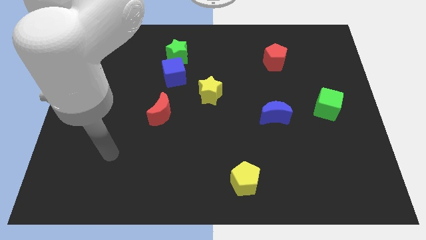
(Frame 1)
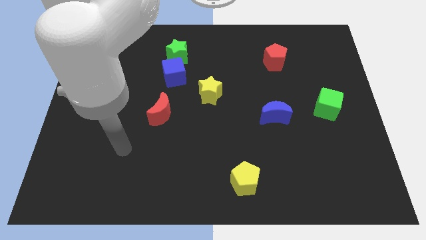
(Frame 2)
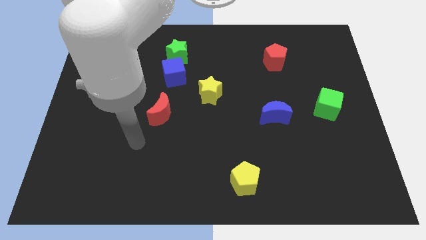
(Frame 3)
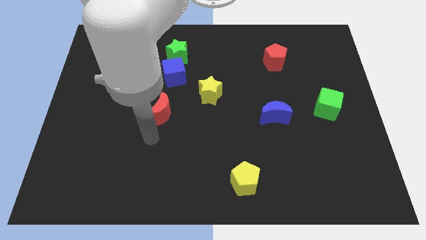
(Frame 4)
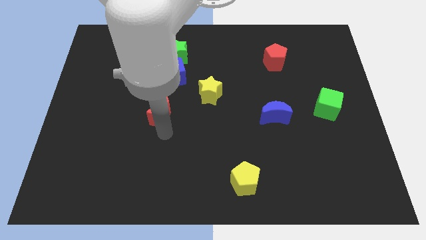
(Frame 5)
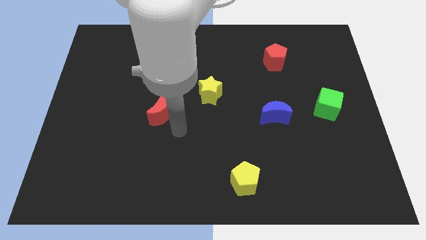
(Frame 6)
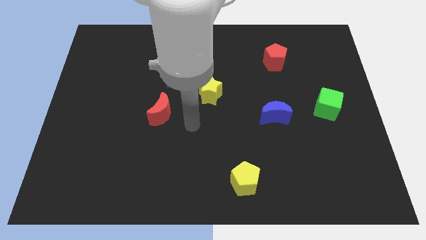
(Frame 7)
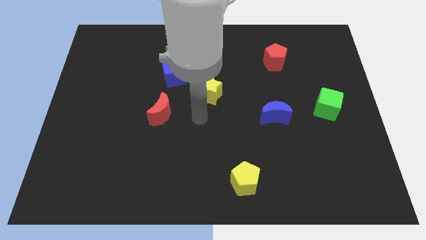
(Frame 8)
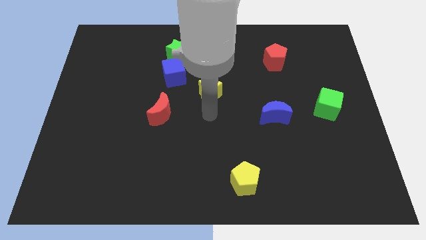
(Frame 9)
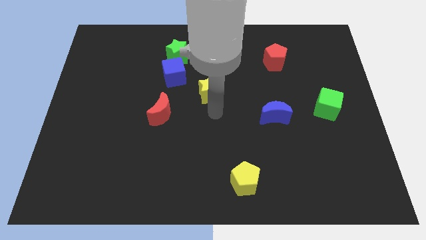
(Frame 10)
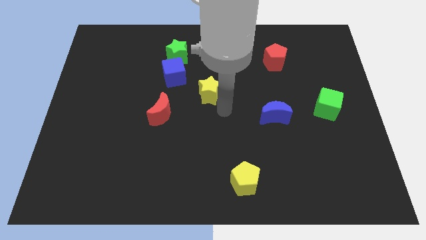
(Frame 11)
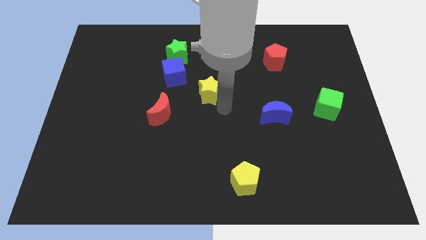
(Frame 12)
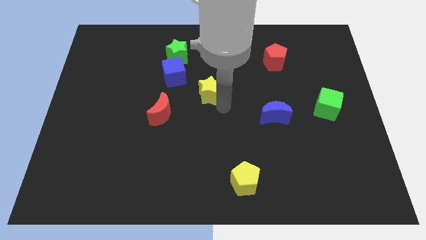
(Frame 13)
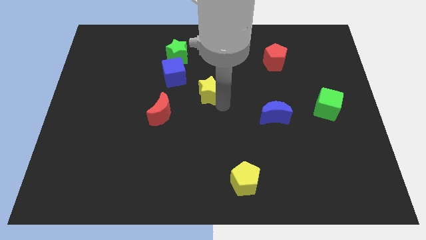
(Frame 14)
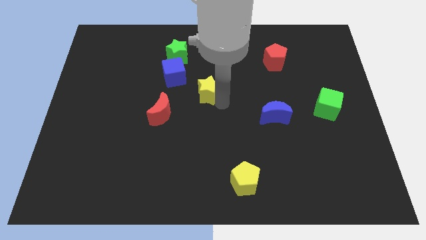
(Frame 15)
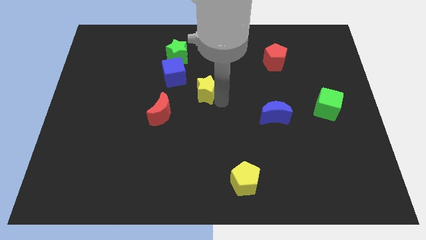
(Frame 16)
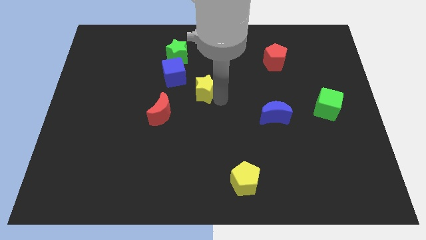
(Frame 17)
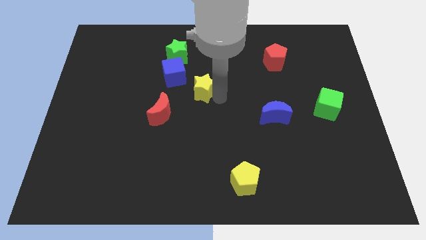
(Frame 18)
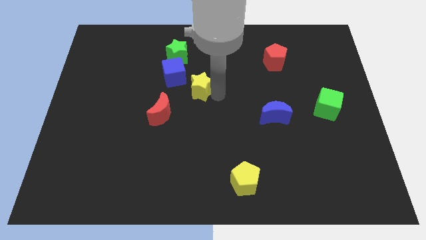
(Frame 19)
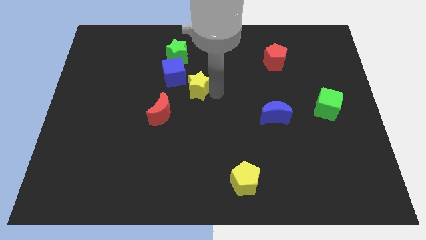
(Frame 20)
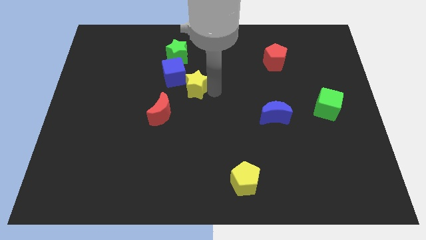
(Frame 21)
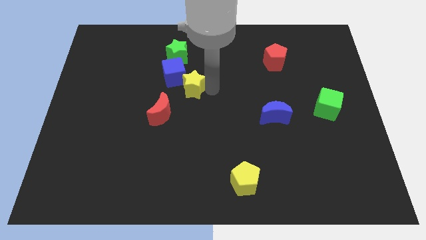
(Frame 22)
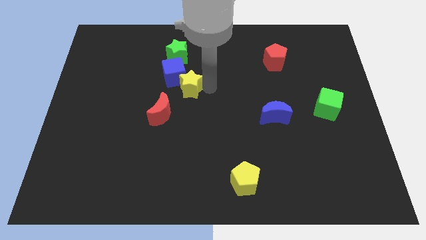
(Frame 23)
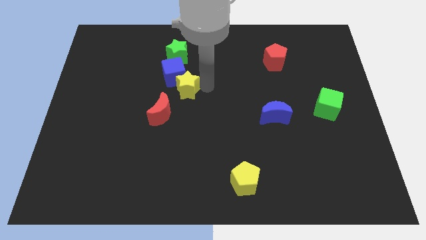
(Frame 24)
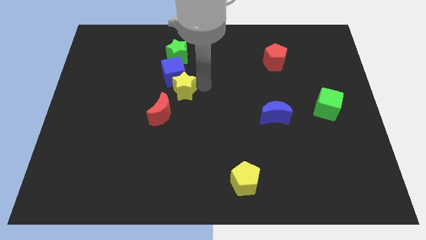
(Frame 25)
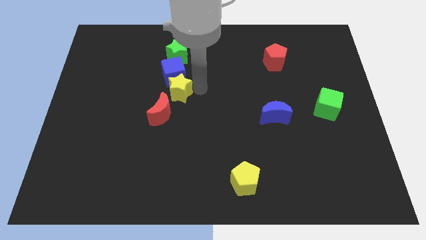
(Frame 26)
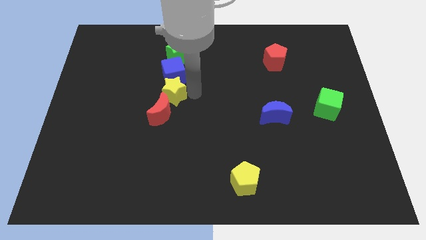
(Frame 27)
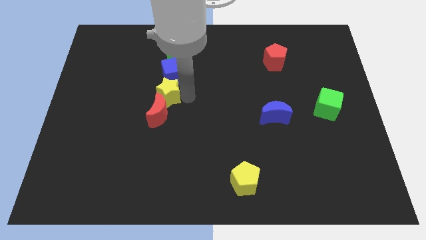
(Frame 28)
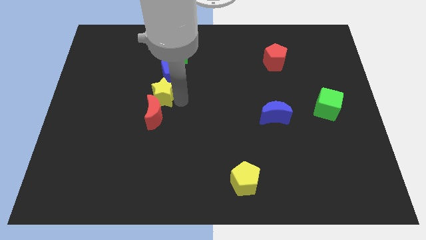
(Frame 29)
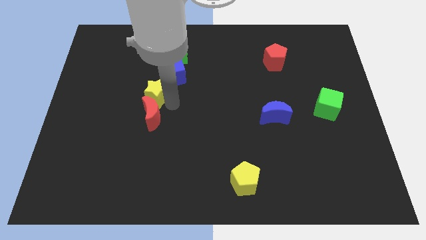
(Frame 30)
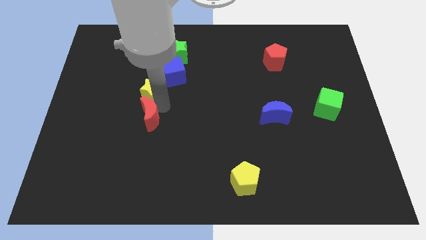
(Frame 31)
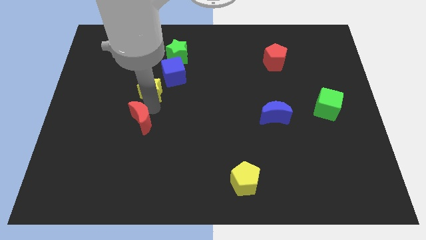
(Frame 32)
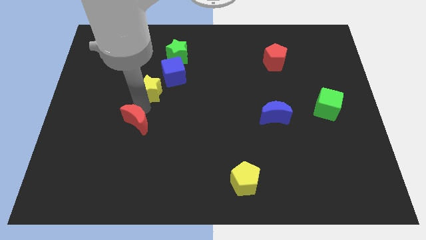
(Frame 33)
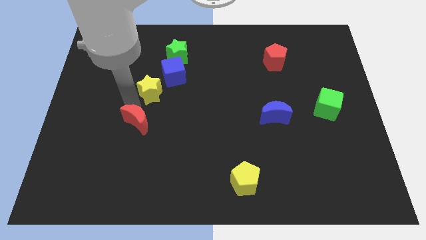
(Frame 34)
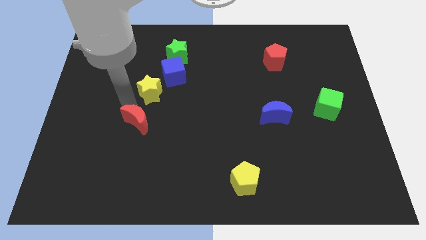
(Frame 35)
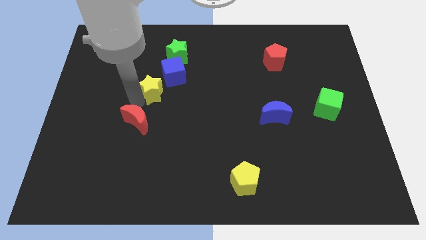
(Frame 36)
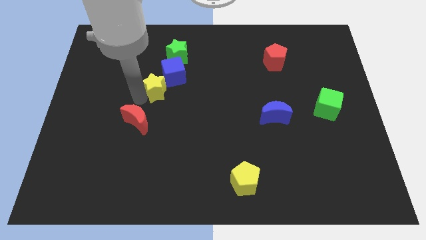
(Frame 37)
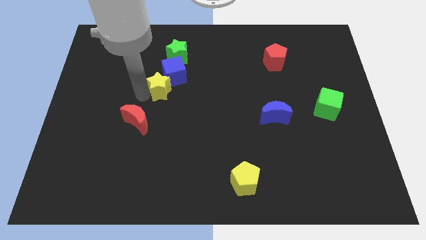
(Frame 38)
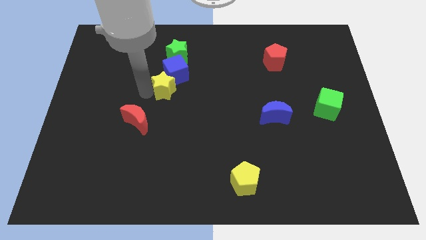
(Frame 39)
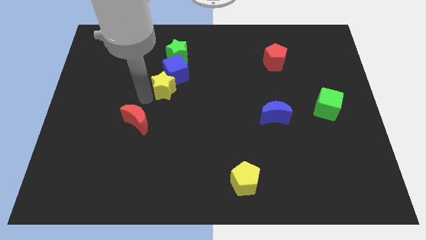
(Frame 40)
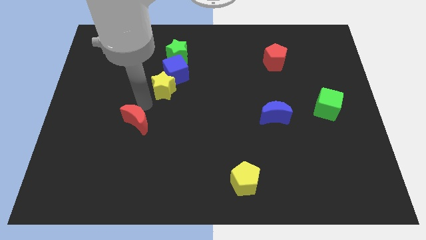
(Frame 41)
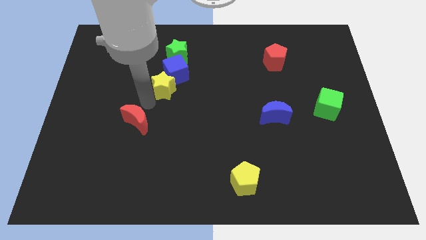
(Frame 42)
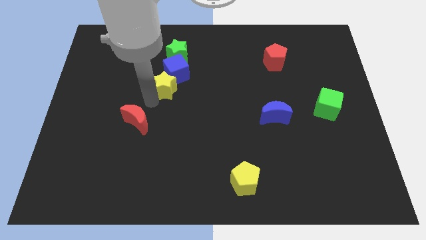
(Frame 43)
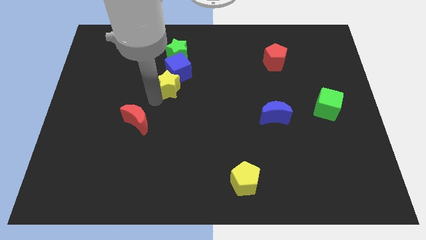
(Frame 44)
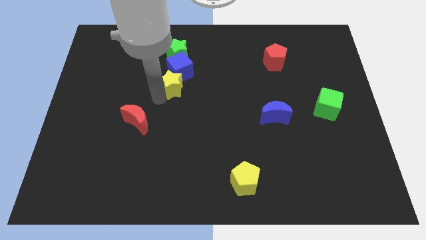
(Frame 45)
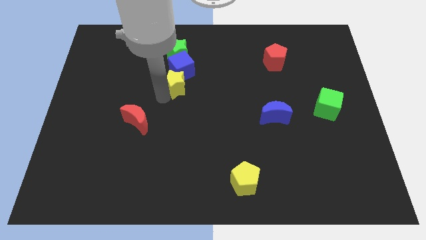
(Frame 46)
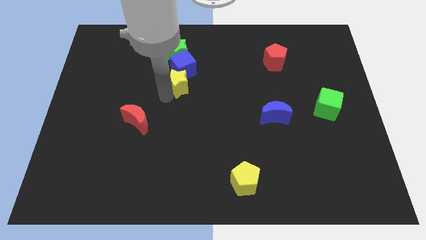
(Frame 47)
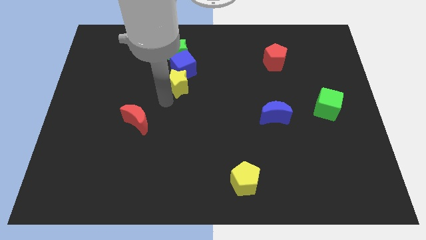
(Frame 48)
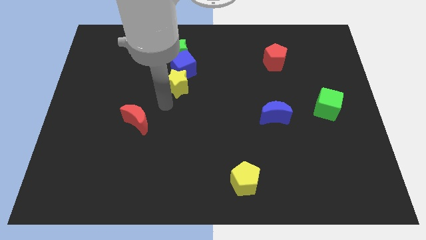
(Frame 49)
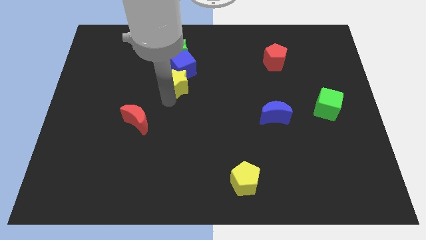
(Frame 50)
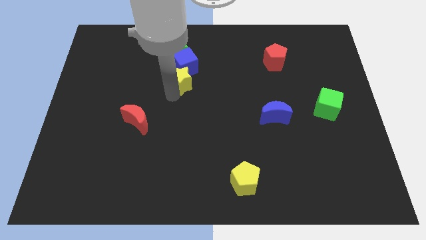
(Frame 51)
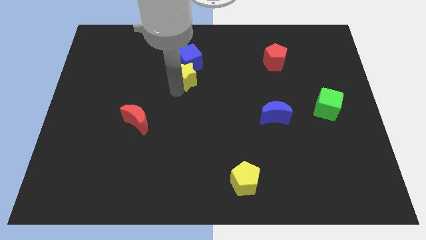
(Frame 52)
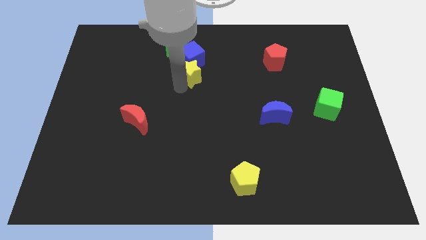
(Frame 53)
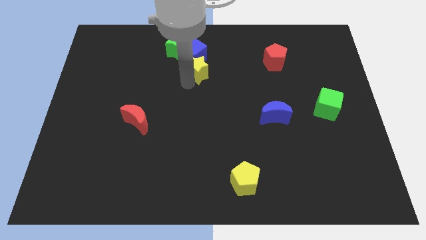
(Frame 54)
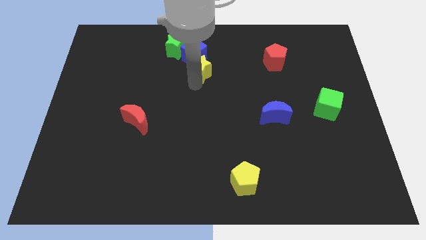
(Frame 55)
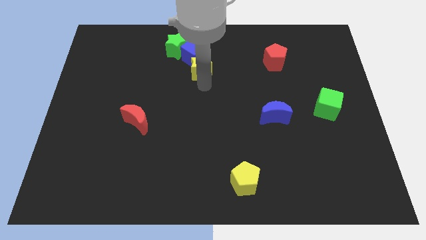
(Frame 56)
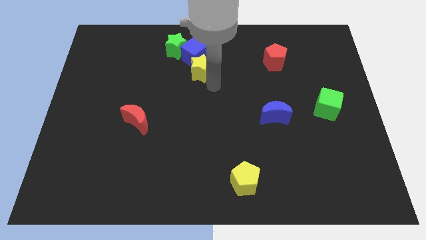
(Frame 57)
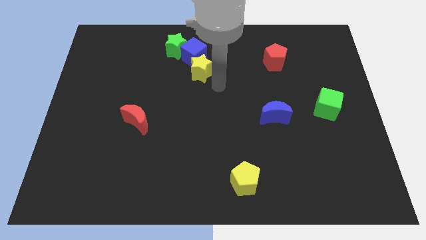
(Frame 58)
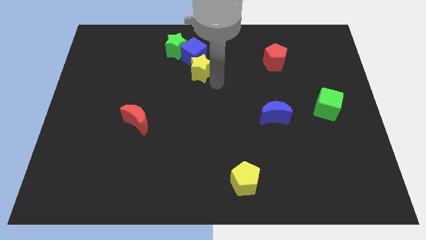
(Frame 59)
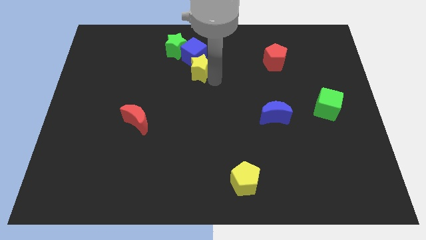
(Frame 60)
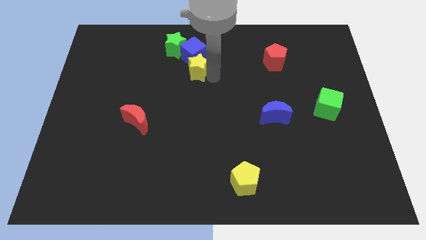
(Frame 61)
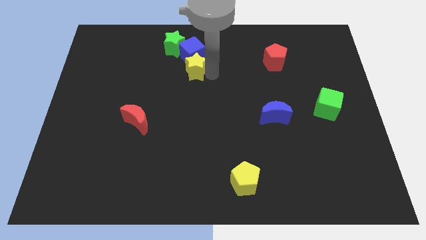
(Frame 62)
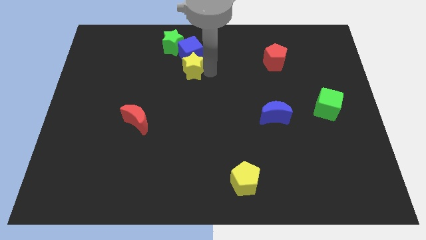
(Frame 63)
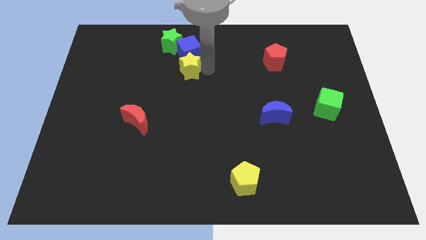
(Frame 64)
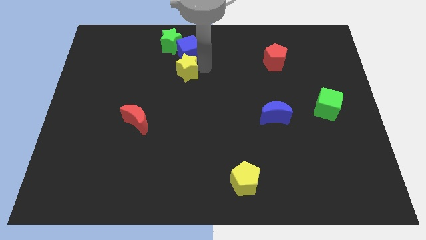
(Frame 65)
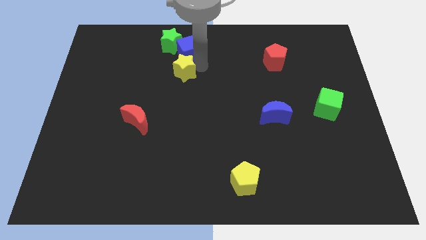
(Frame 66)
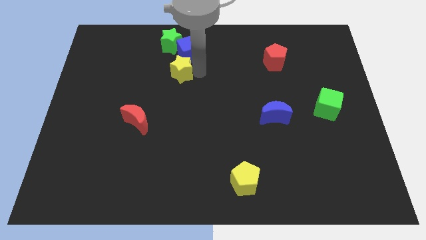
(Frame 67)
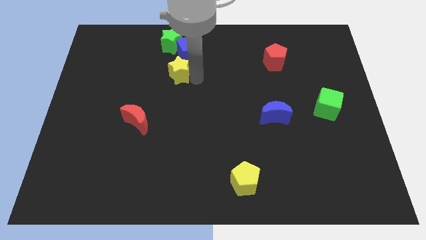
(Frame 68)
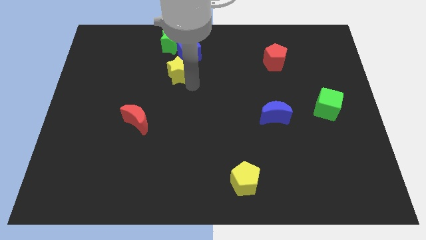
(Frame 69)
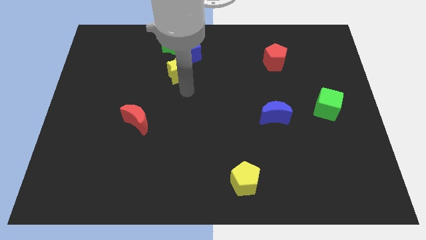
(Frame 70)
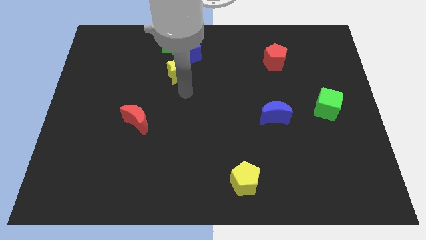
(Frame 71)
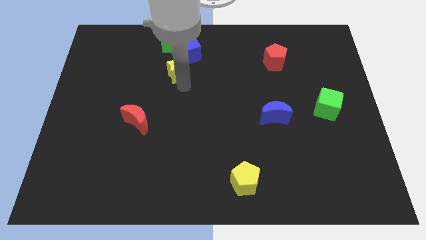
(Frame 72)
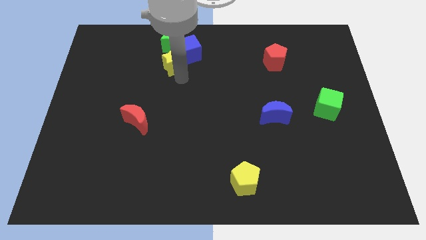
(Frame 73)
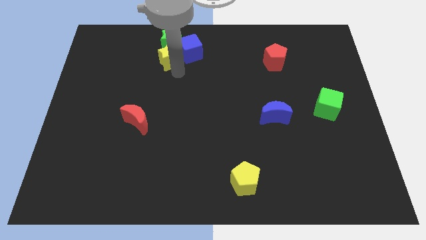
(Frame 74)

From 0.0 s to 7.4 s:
slide the yellow star close to the green star

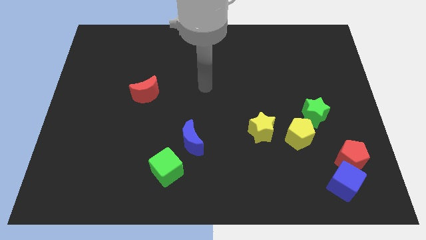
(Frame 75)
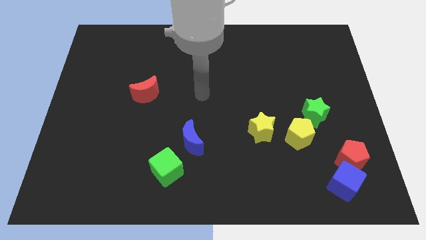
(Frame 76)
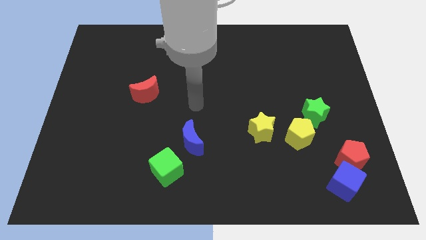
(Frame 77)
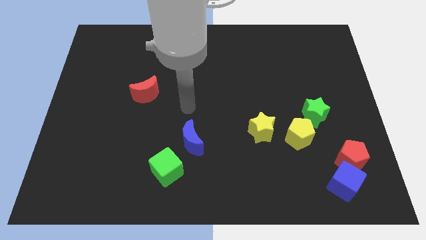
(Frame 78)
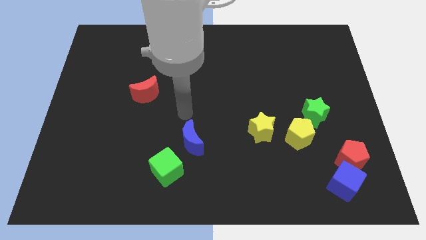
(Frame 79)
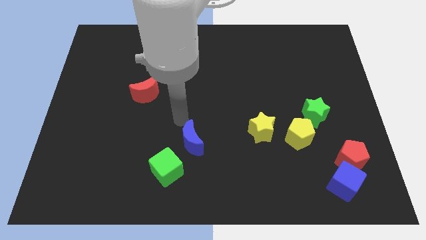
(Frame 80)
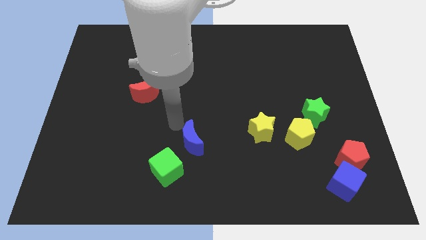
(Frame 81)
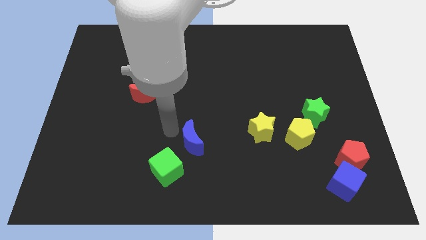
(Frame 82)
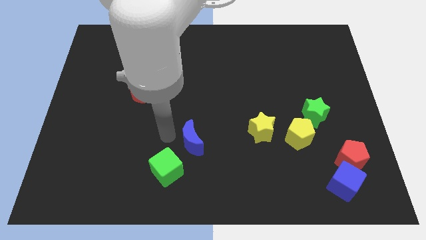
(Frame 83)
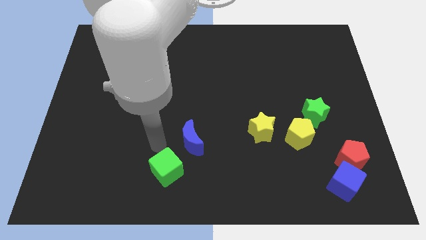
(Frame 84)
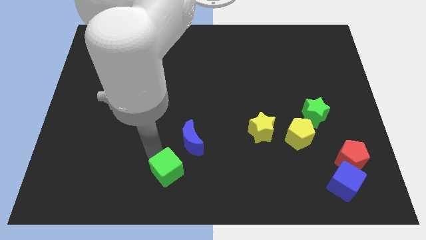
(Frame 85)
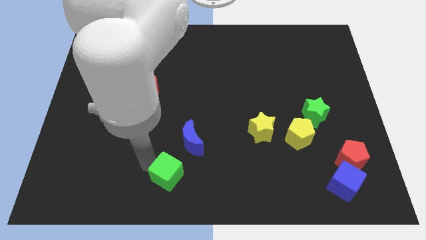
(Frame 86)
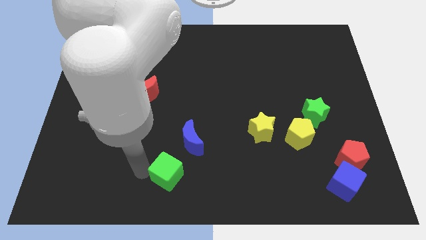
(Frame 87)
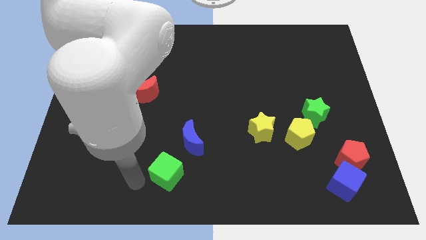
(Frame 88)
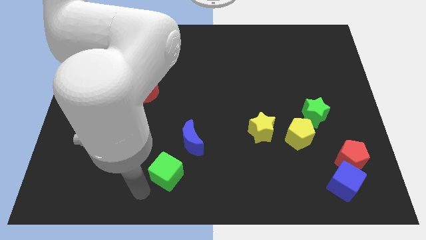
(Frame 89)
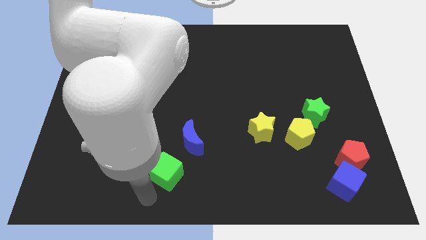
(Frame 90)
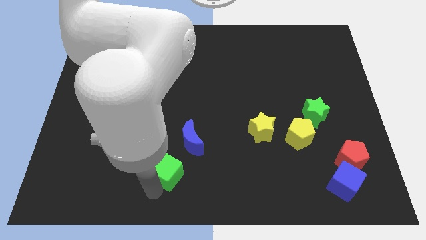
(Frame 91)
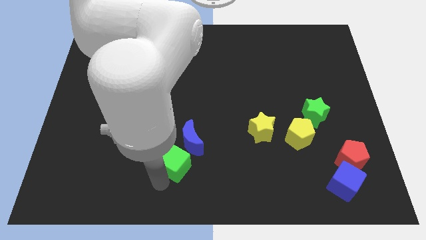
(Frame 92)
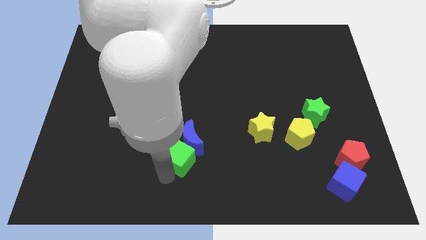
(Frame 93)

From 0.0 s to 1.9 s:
slide the green cube next to the blue moon
